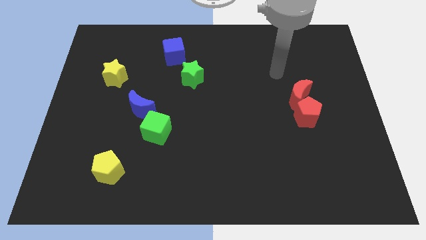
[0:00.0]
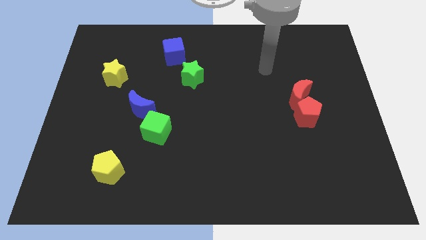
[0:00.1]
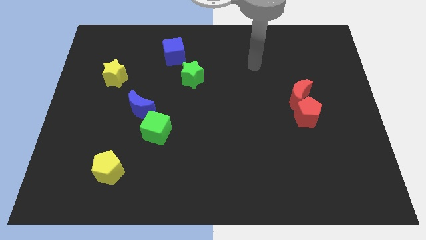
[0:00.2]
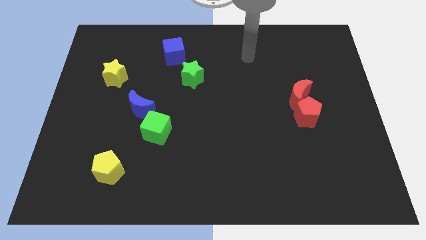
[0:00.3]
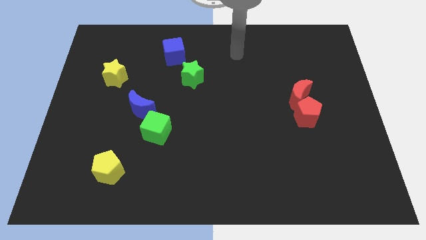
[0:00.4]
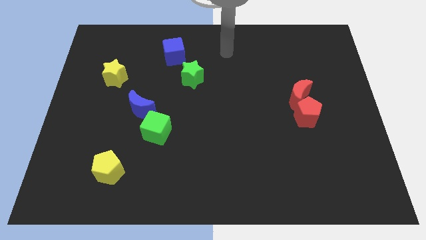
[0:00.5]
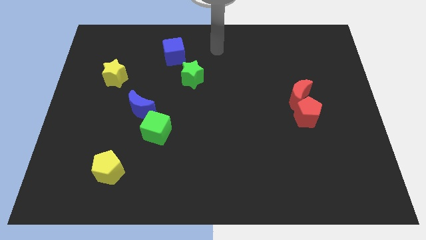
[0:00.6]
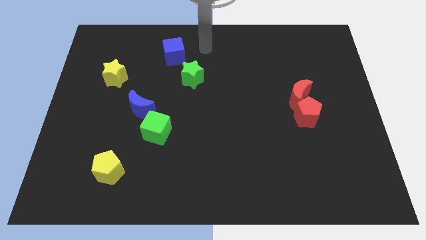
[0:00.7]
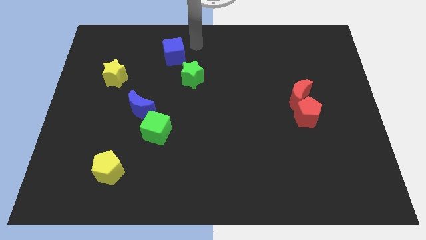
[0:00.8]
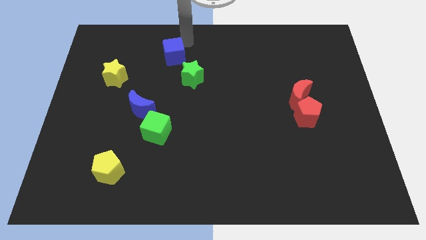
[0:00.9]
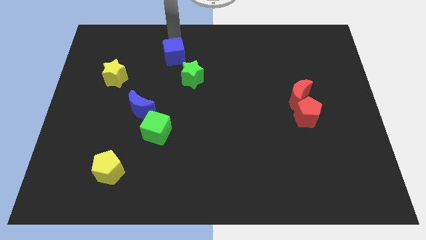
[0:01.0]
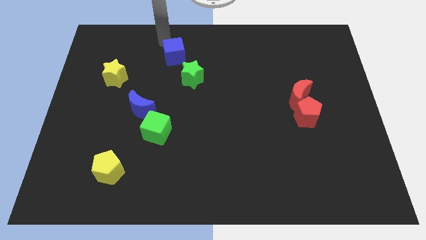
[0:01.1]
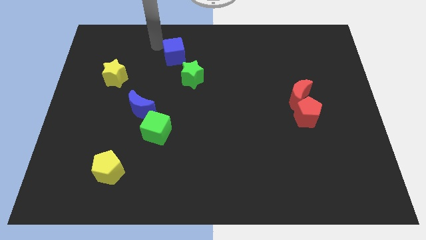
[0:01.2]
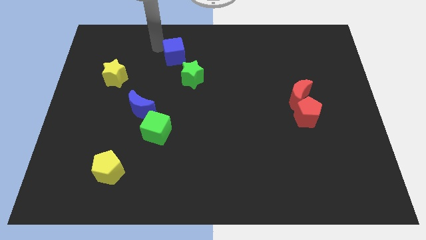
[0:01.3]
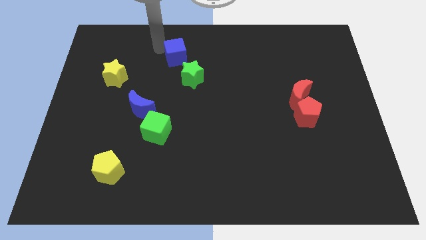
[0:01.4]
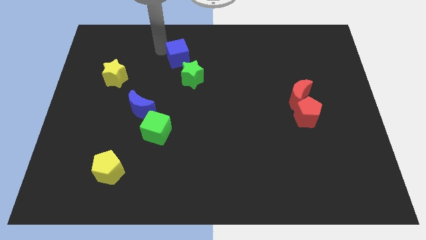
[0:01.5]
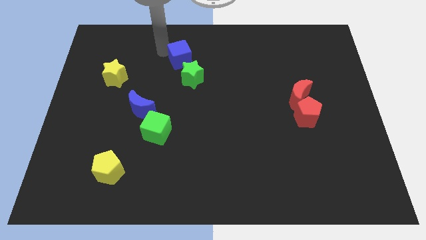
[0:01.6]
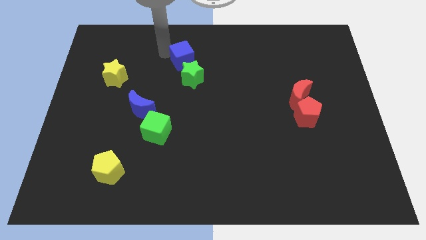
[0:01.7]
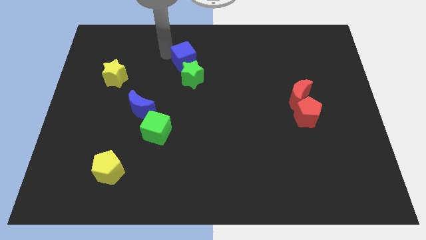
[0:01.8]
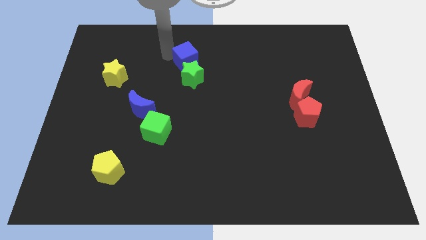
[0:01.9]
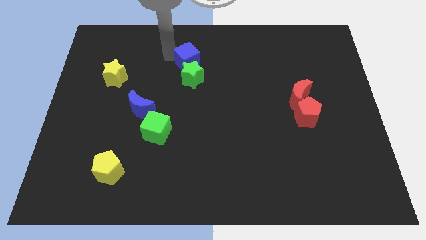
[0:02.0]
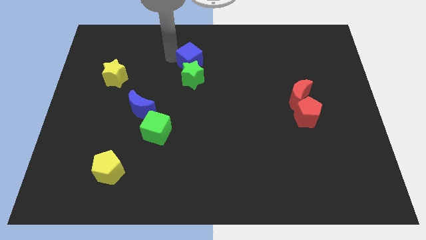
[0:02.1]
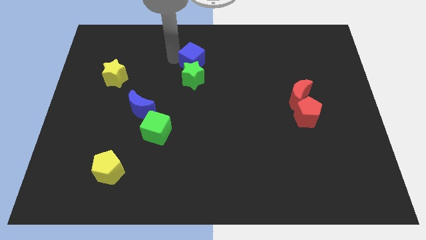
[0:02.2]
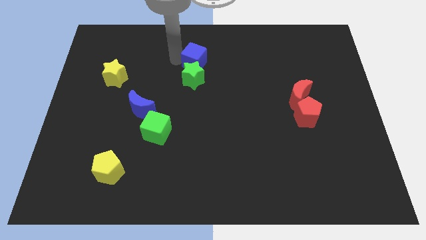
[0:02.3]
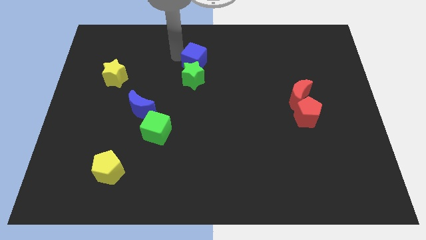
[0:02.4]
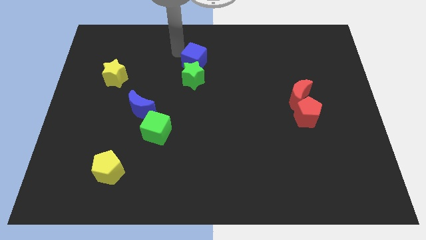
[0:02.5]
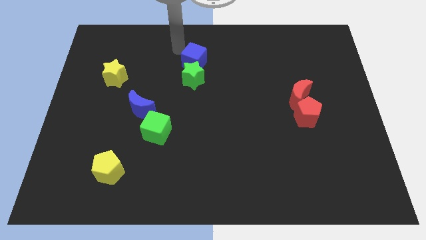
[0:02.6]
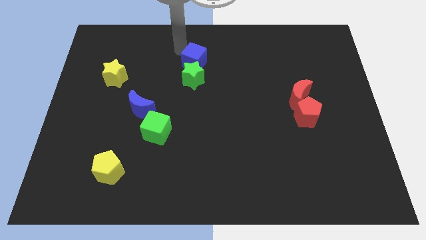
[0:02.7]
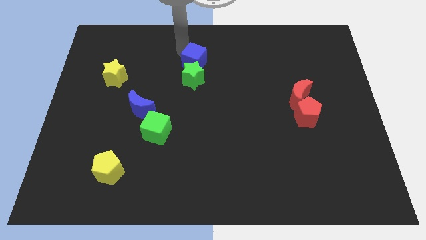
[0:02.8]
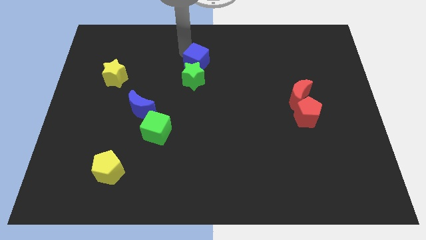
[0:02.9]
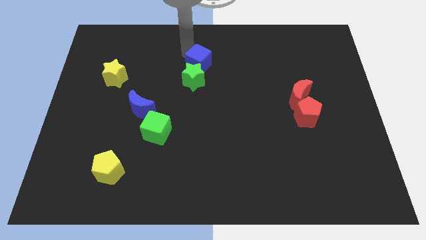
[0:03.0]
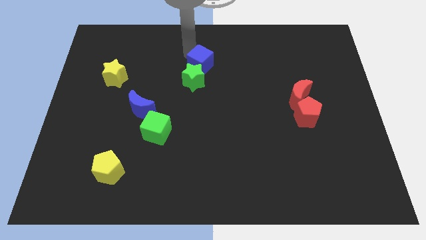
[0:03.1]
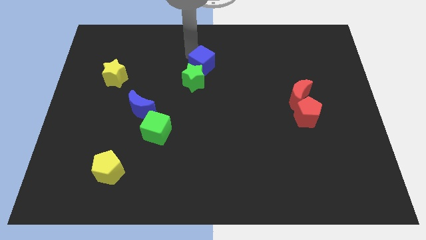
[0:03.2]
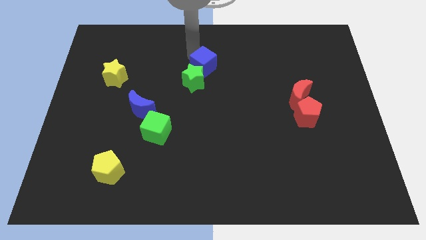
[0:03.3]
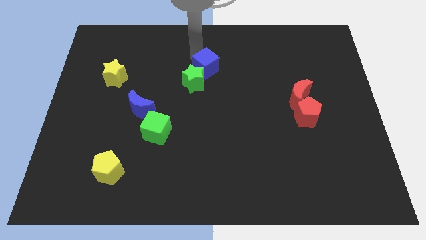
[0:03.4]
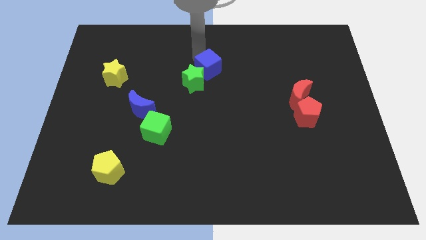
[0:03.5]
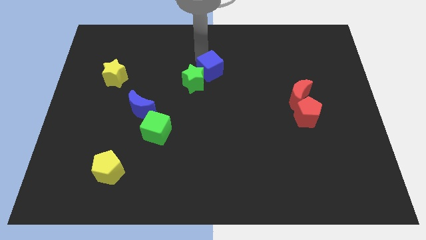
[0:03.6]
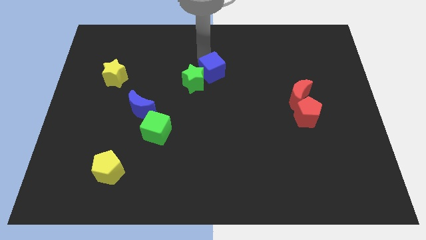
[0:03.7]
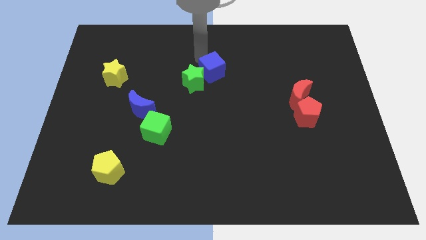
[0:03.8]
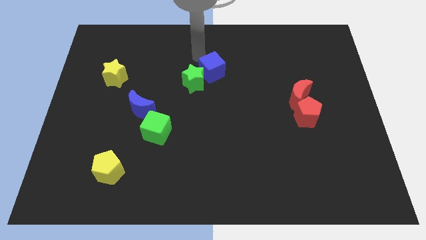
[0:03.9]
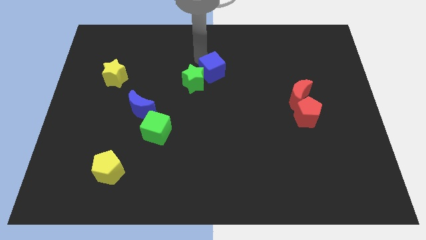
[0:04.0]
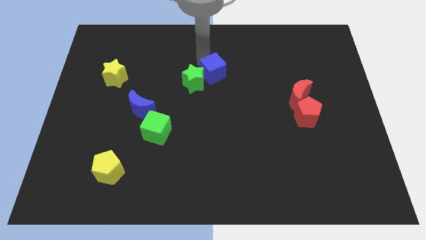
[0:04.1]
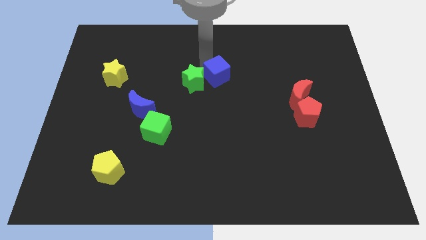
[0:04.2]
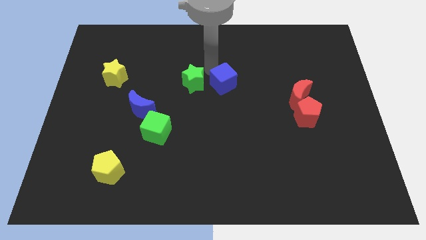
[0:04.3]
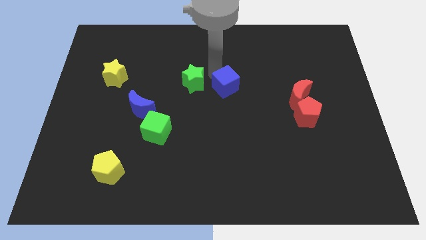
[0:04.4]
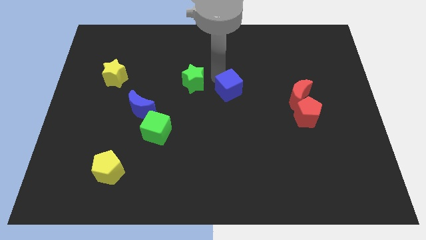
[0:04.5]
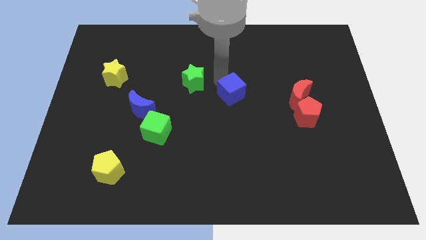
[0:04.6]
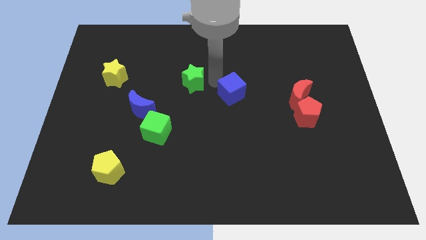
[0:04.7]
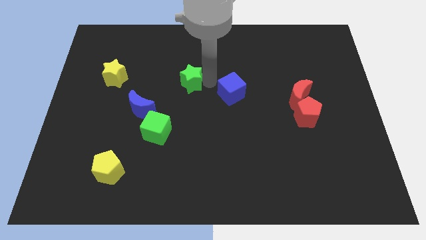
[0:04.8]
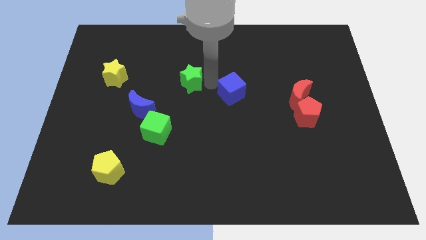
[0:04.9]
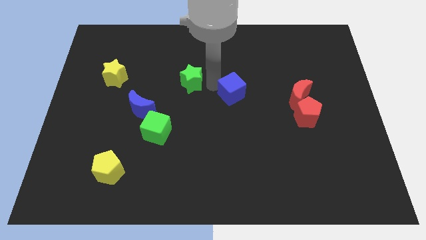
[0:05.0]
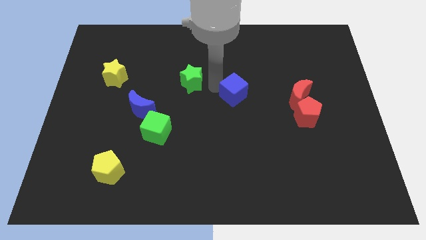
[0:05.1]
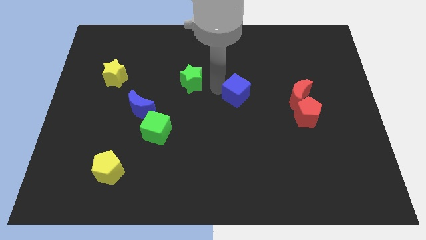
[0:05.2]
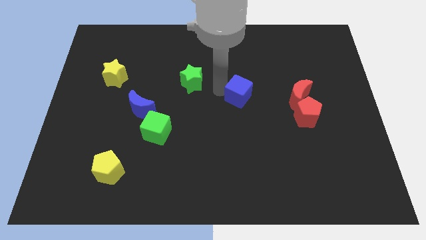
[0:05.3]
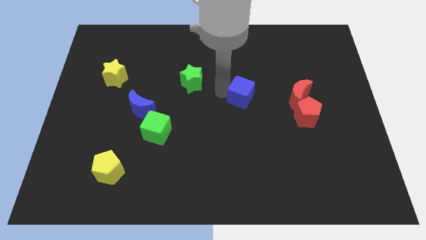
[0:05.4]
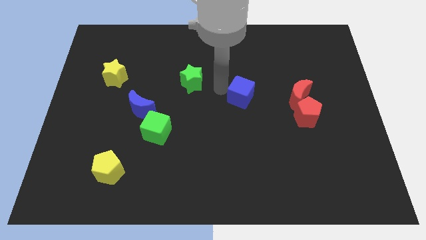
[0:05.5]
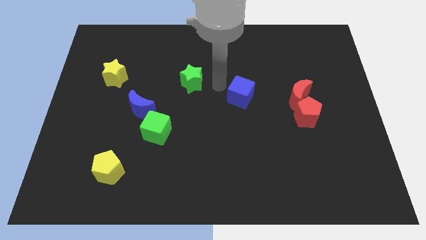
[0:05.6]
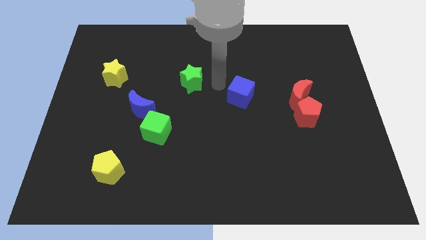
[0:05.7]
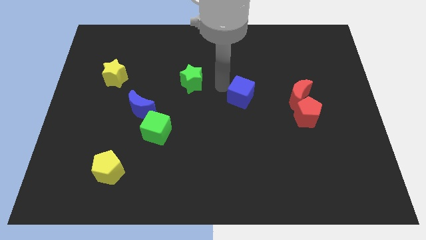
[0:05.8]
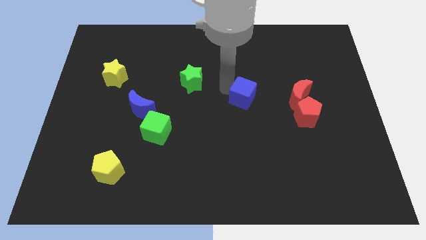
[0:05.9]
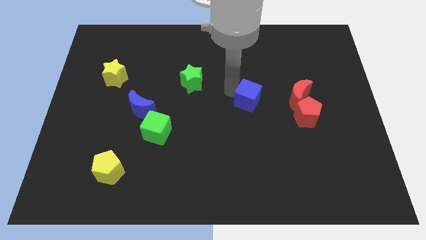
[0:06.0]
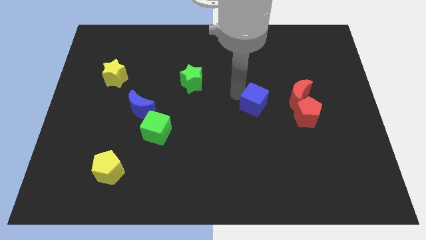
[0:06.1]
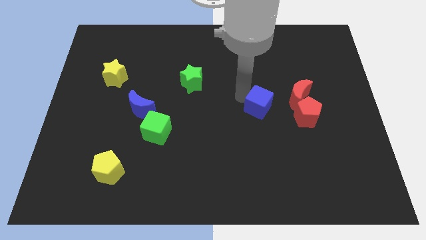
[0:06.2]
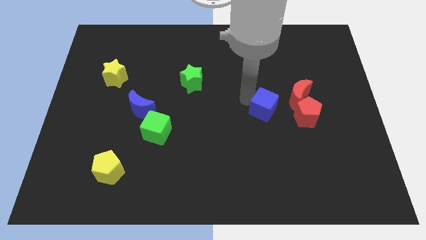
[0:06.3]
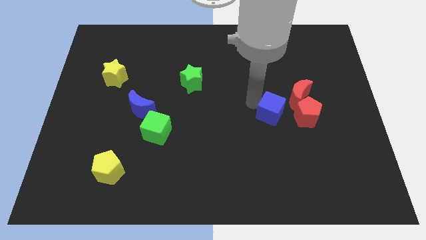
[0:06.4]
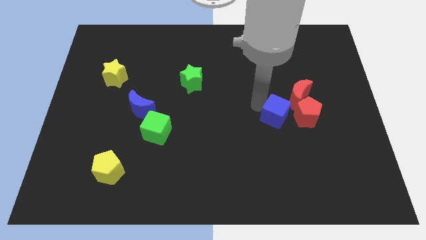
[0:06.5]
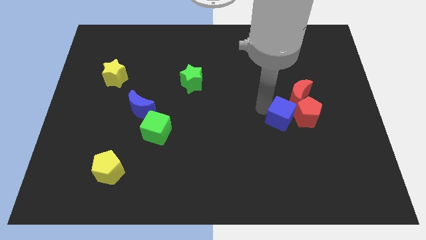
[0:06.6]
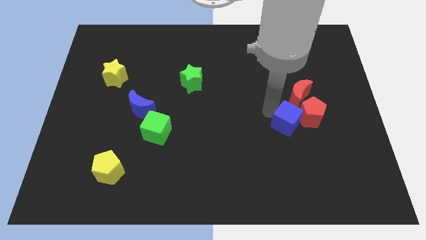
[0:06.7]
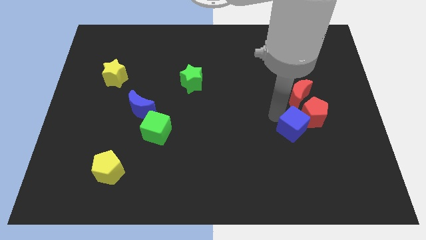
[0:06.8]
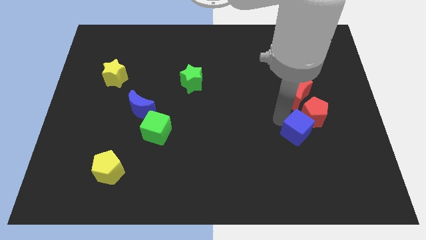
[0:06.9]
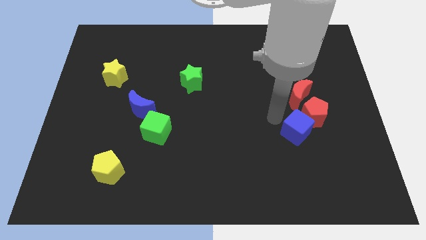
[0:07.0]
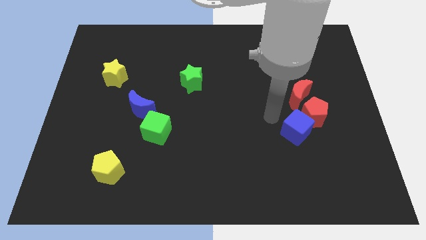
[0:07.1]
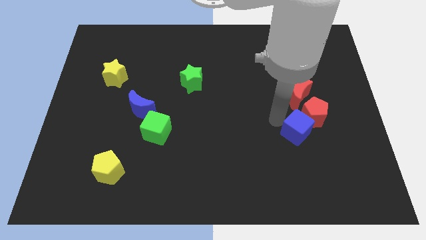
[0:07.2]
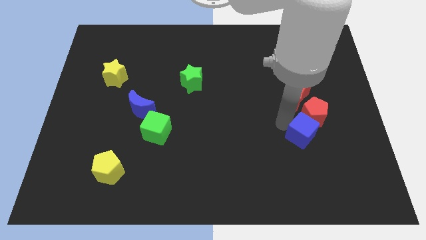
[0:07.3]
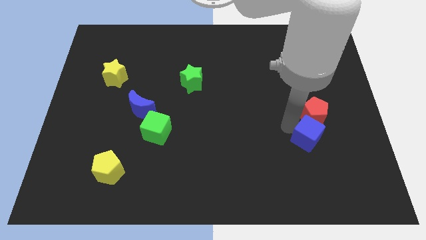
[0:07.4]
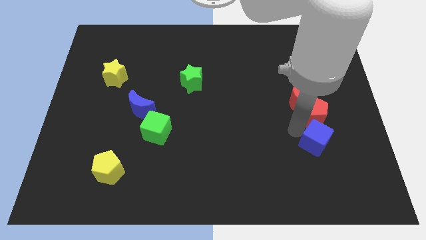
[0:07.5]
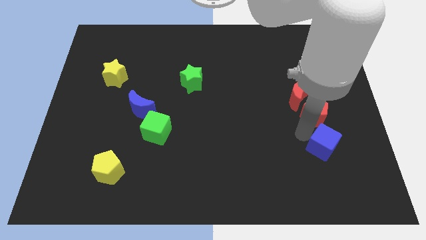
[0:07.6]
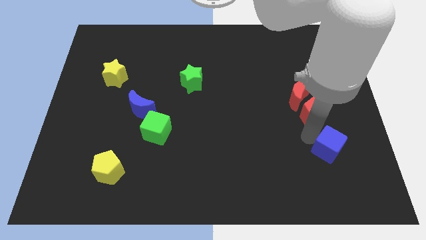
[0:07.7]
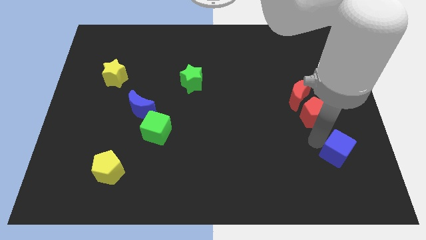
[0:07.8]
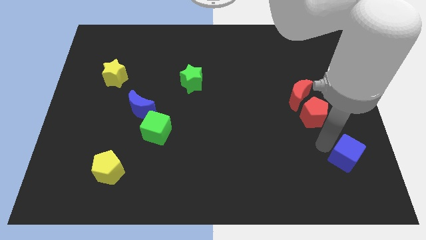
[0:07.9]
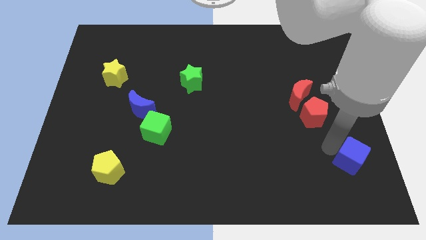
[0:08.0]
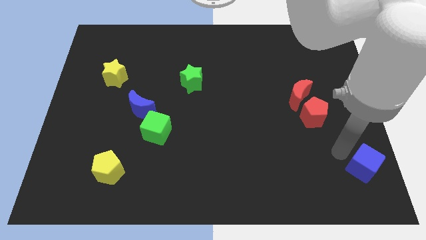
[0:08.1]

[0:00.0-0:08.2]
slide the blue cube to the lower right corner
